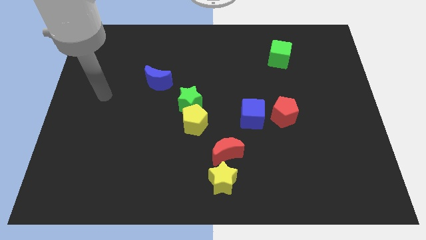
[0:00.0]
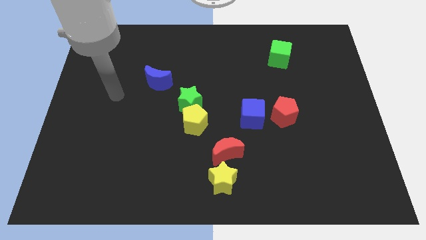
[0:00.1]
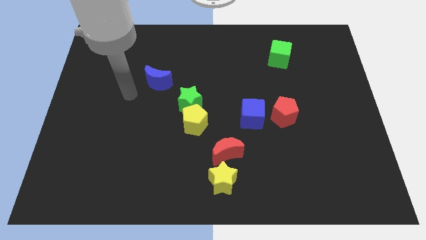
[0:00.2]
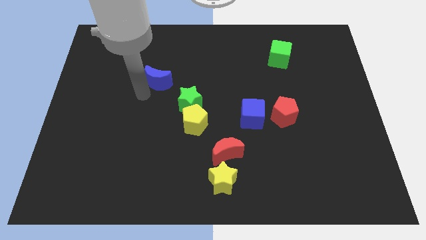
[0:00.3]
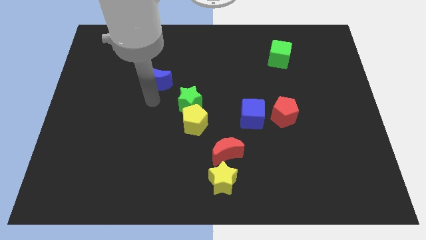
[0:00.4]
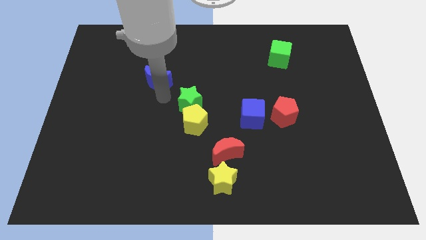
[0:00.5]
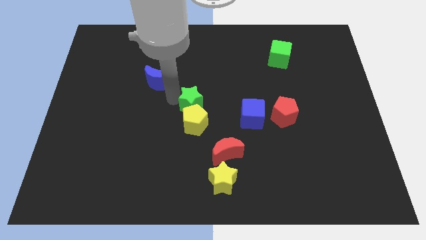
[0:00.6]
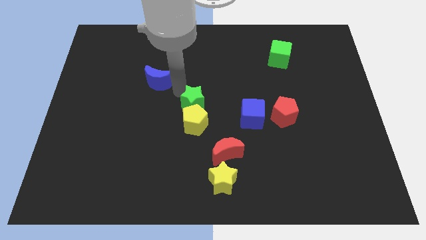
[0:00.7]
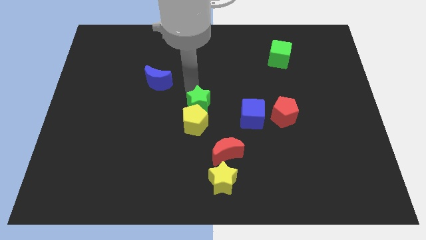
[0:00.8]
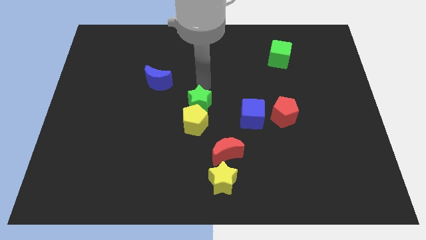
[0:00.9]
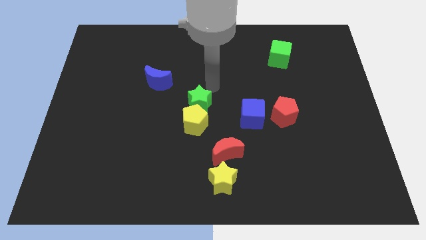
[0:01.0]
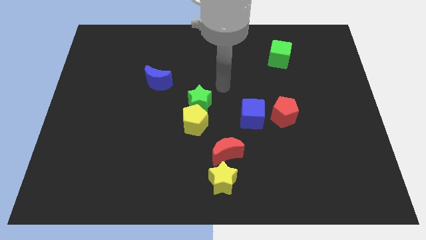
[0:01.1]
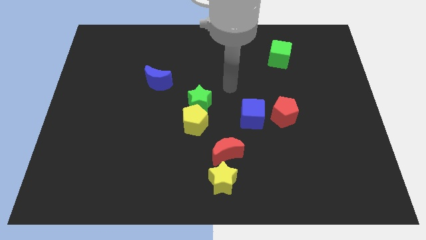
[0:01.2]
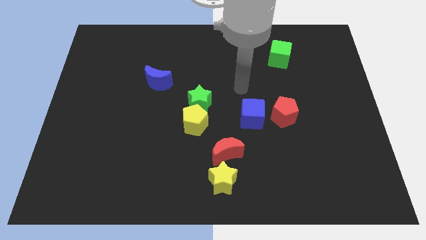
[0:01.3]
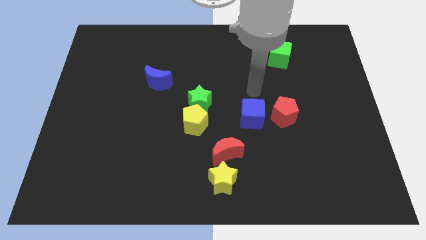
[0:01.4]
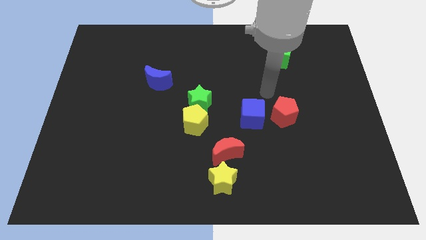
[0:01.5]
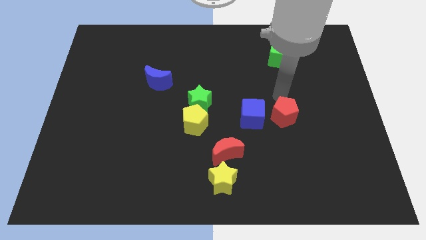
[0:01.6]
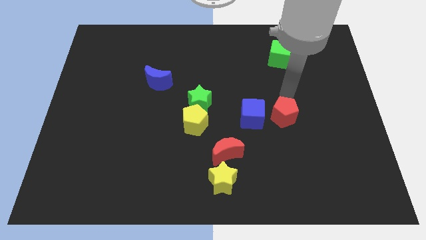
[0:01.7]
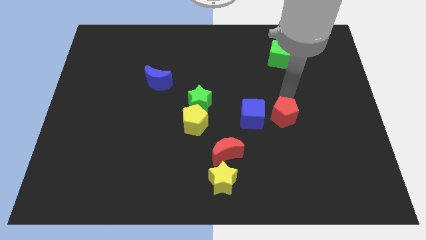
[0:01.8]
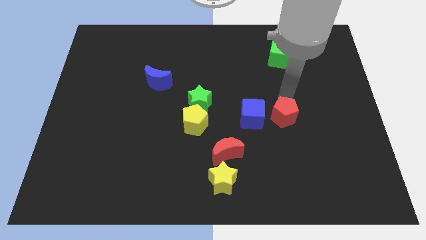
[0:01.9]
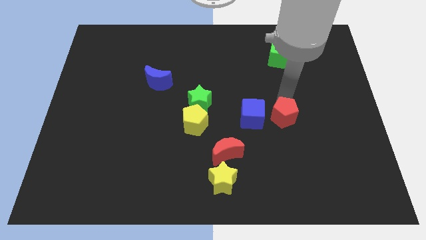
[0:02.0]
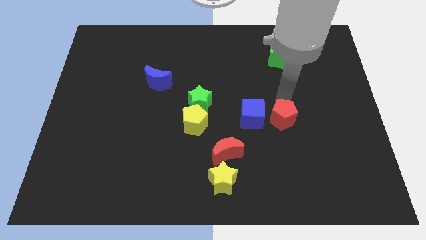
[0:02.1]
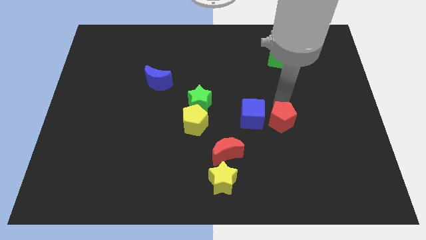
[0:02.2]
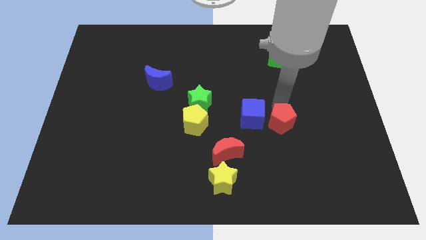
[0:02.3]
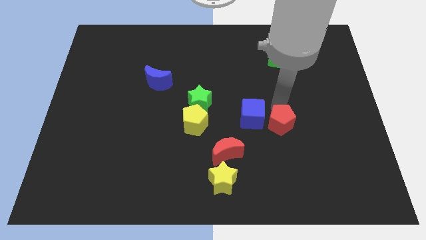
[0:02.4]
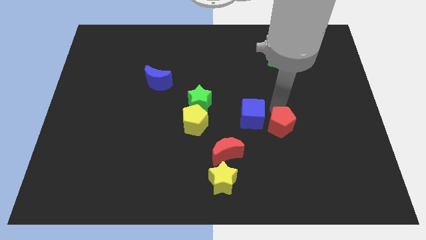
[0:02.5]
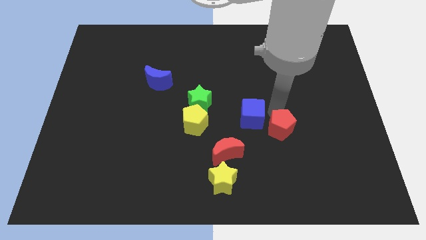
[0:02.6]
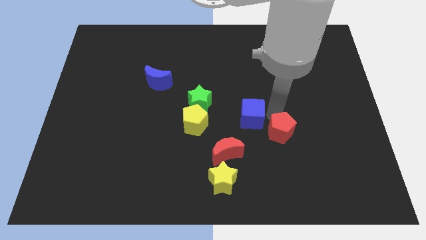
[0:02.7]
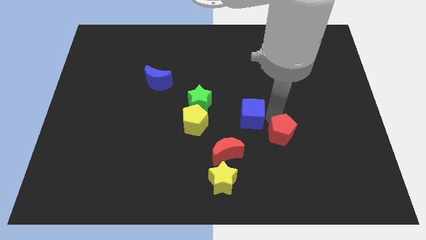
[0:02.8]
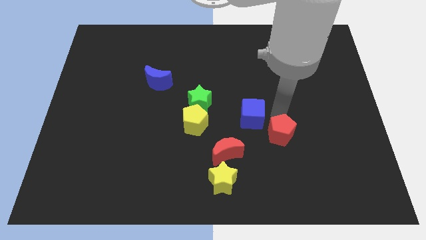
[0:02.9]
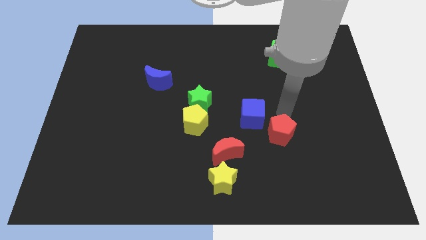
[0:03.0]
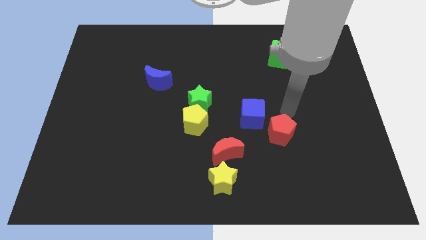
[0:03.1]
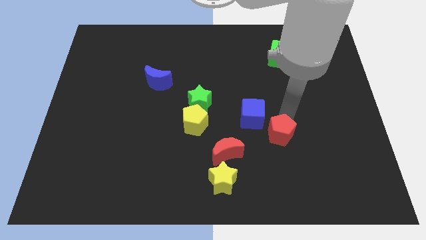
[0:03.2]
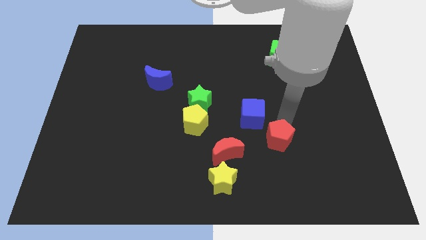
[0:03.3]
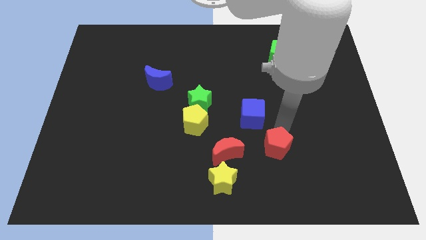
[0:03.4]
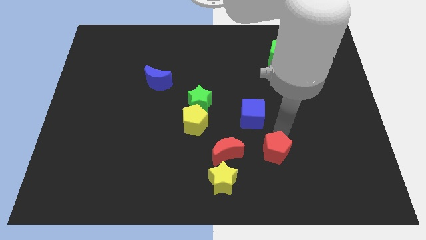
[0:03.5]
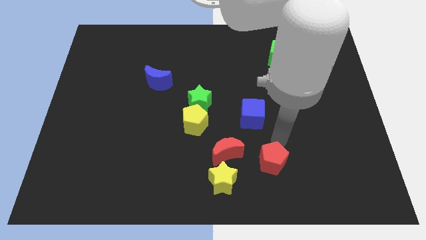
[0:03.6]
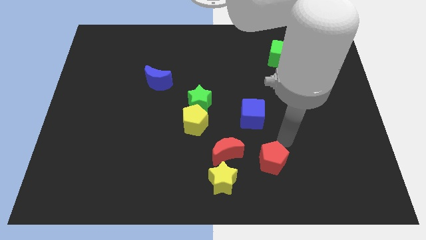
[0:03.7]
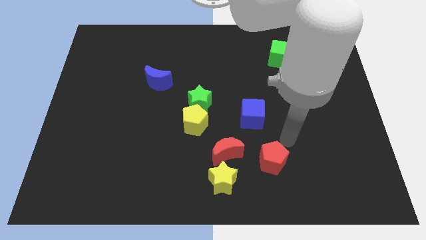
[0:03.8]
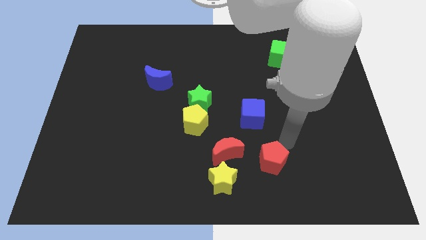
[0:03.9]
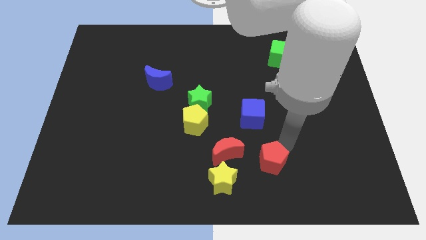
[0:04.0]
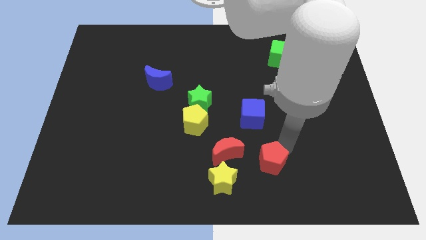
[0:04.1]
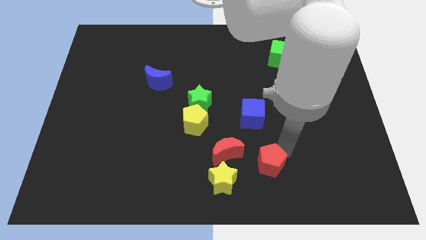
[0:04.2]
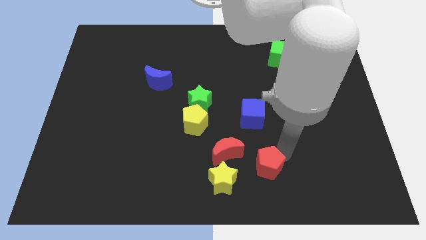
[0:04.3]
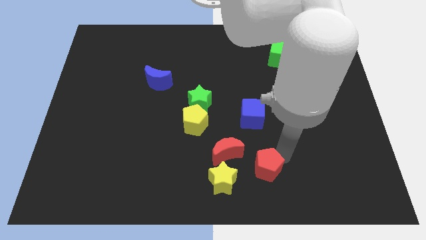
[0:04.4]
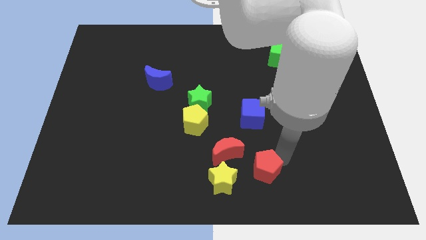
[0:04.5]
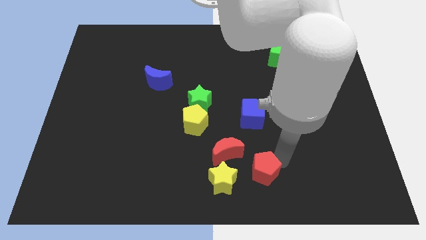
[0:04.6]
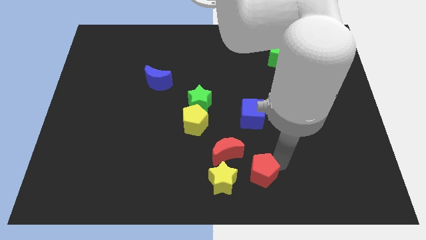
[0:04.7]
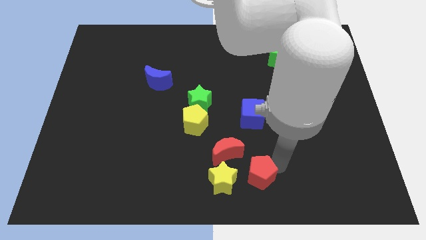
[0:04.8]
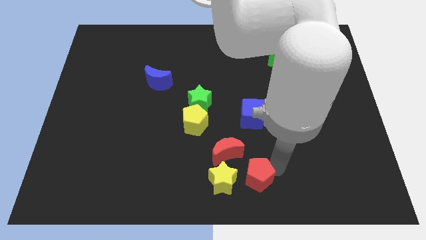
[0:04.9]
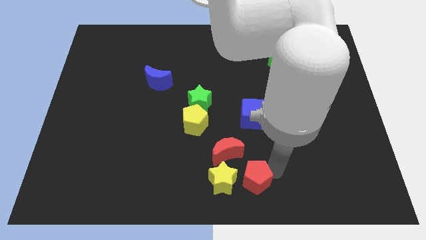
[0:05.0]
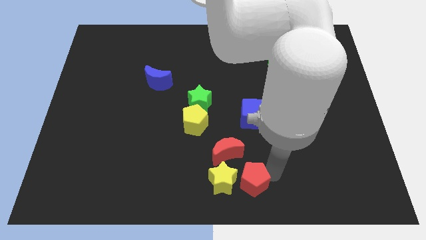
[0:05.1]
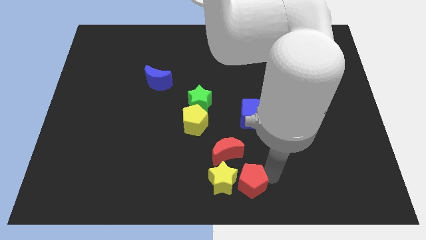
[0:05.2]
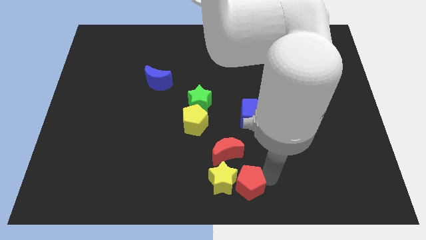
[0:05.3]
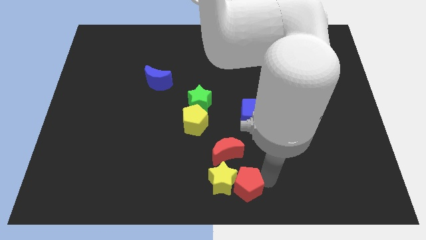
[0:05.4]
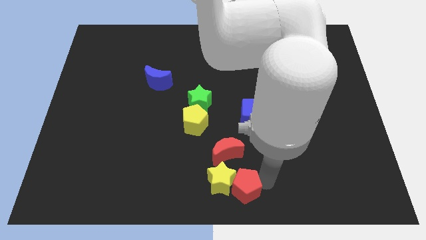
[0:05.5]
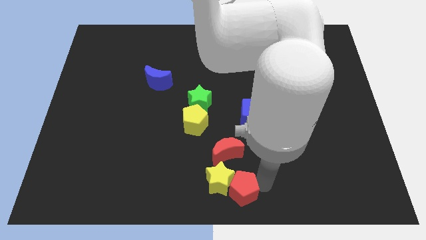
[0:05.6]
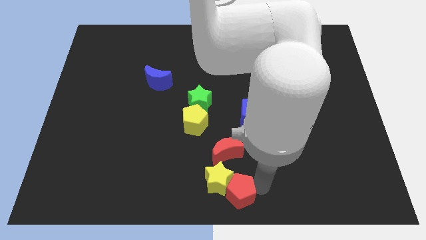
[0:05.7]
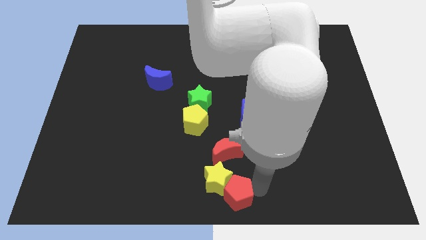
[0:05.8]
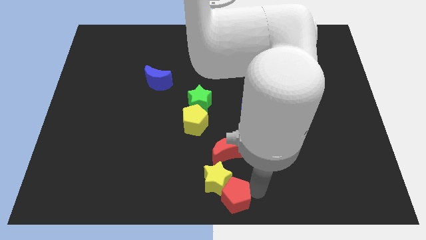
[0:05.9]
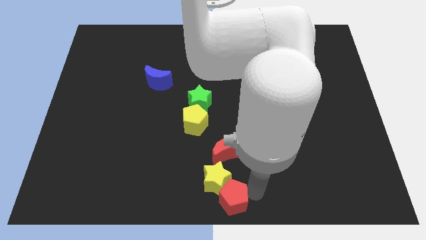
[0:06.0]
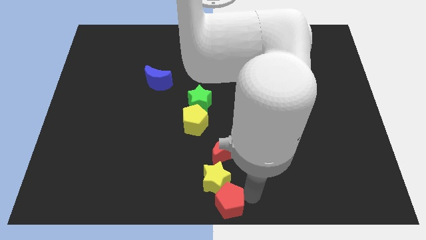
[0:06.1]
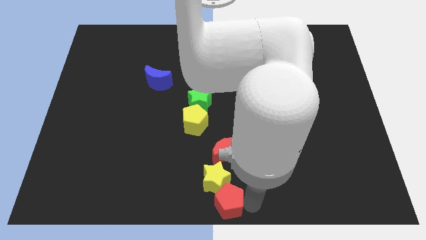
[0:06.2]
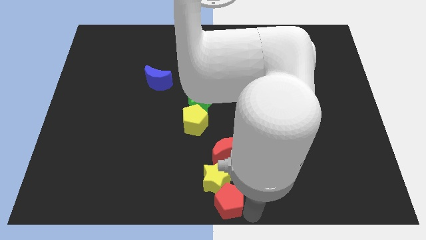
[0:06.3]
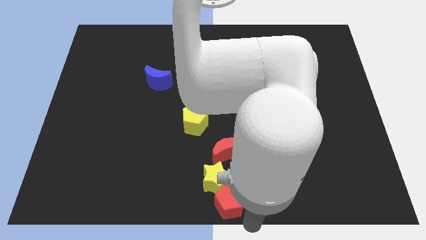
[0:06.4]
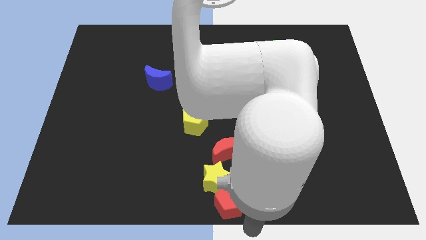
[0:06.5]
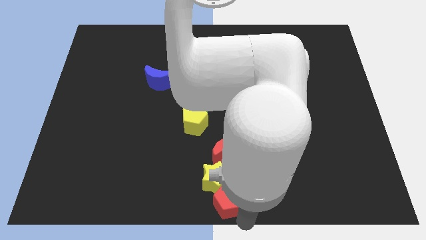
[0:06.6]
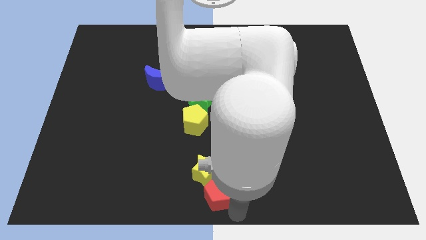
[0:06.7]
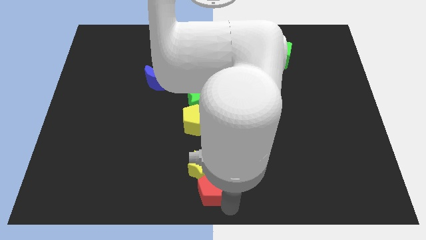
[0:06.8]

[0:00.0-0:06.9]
move the red pentagon to the bottom left side of the red moon
